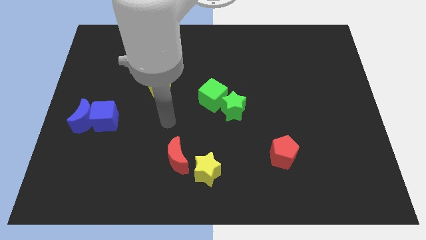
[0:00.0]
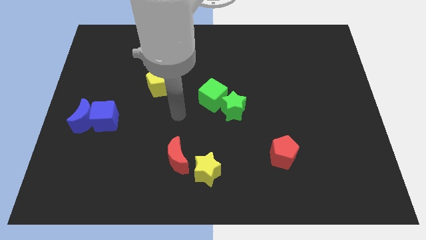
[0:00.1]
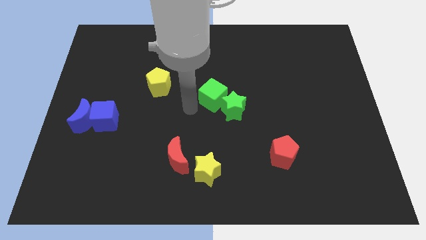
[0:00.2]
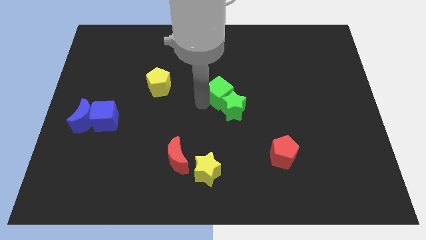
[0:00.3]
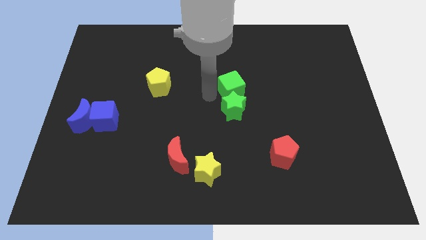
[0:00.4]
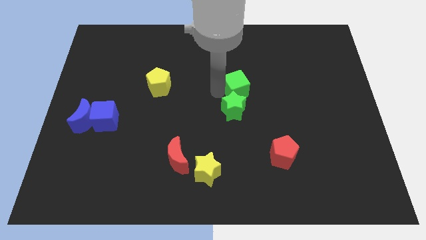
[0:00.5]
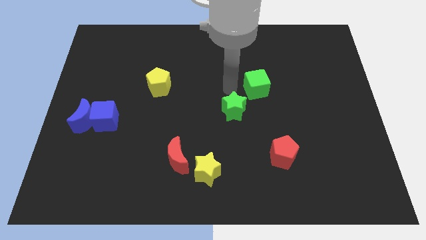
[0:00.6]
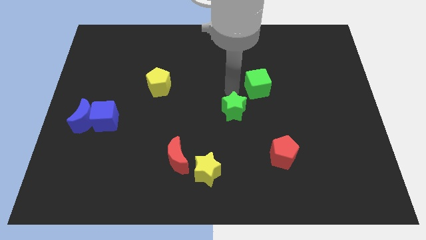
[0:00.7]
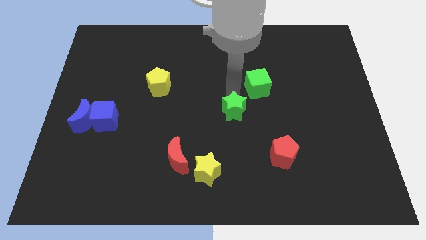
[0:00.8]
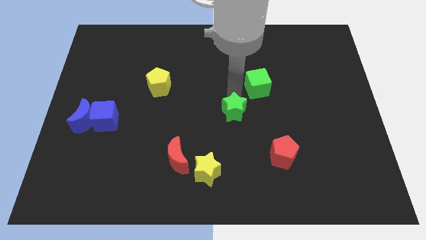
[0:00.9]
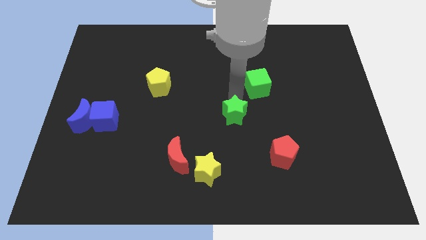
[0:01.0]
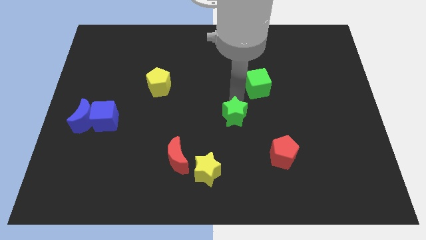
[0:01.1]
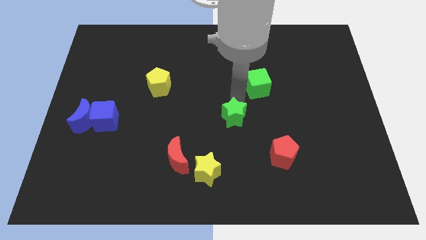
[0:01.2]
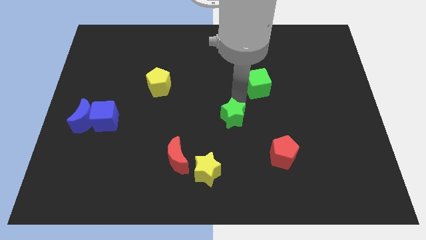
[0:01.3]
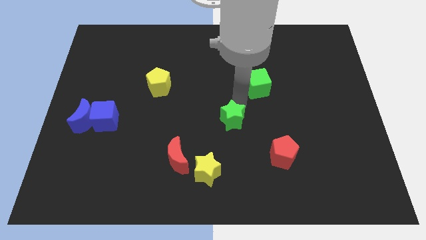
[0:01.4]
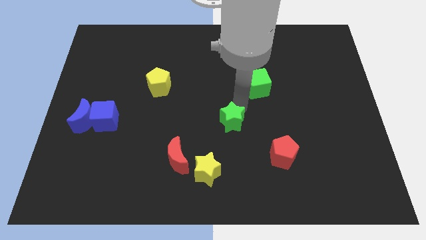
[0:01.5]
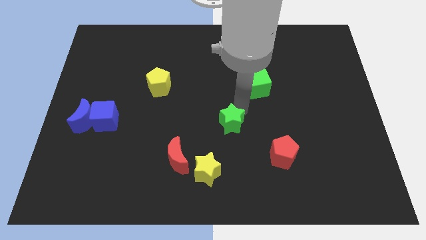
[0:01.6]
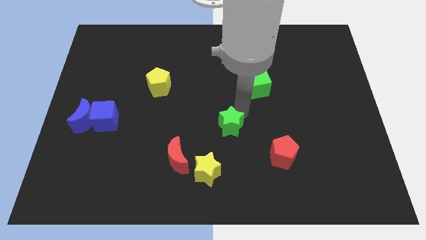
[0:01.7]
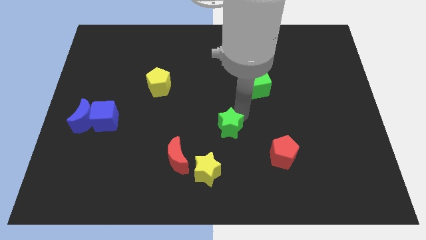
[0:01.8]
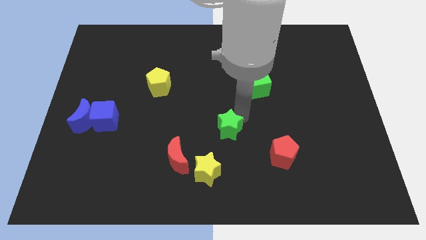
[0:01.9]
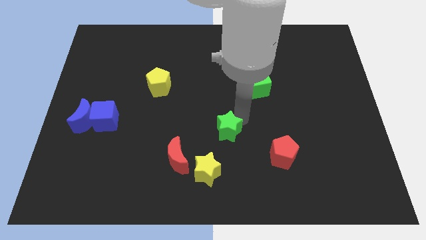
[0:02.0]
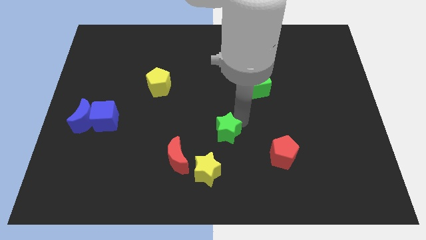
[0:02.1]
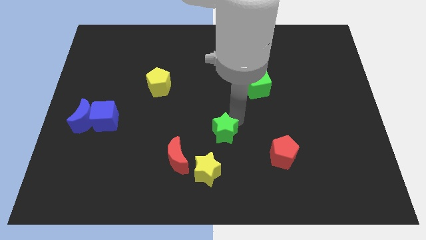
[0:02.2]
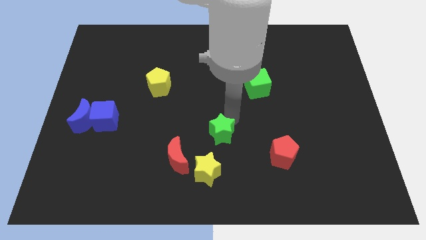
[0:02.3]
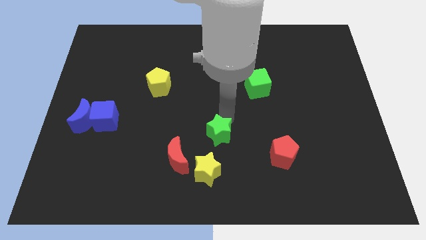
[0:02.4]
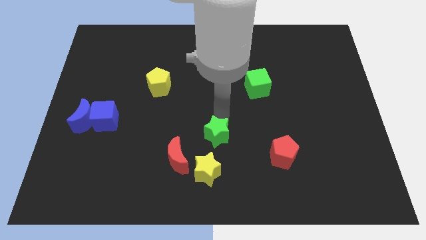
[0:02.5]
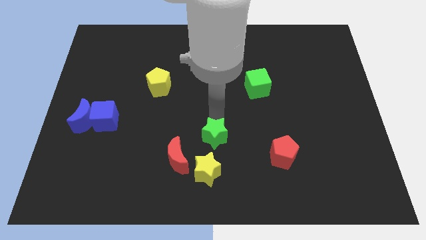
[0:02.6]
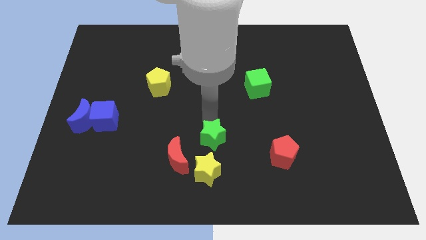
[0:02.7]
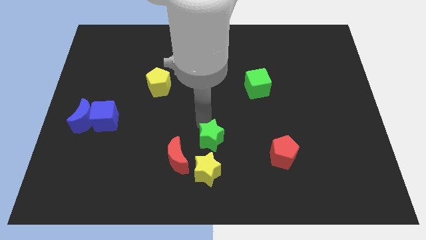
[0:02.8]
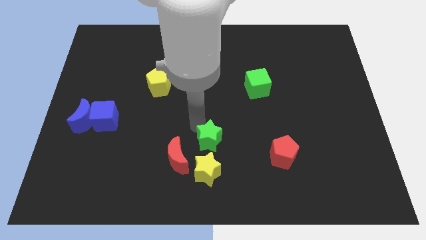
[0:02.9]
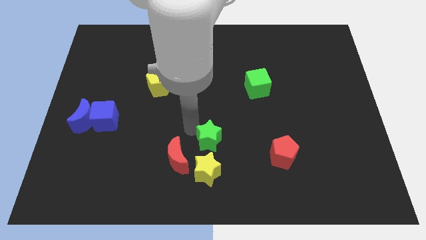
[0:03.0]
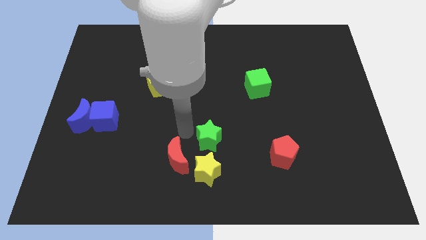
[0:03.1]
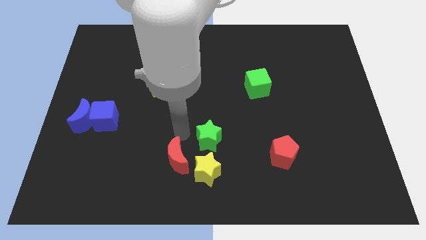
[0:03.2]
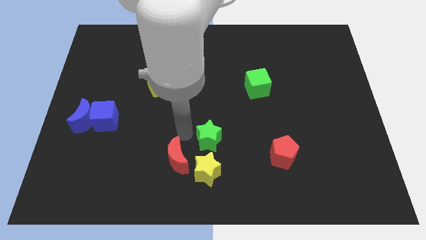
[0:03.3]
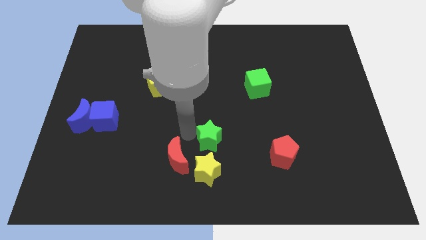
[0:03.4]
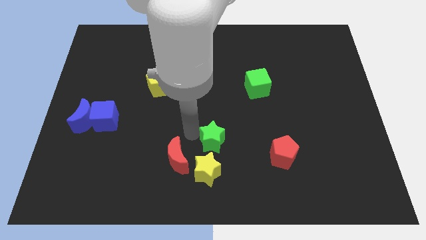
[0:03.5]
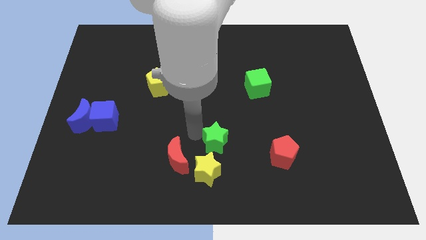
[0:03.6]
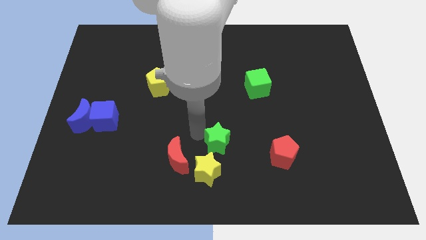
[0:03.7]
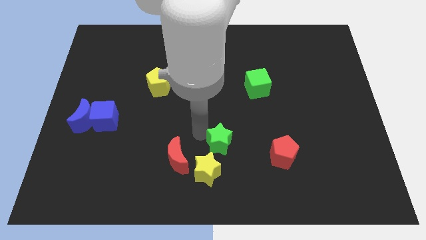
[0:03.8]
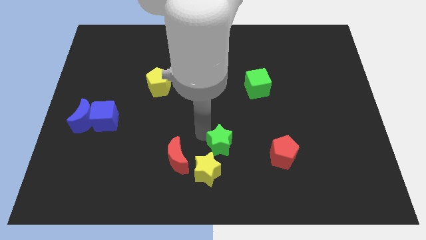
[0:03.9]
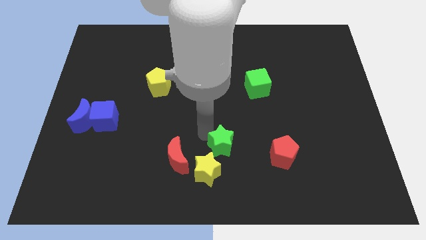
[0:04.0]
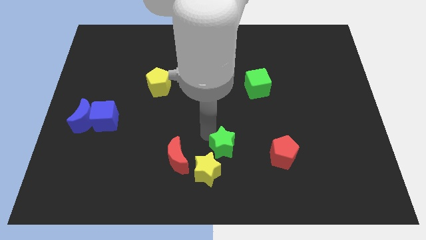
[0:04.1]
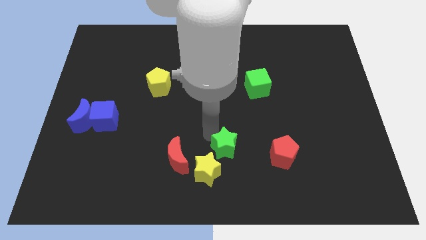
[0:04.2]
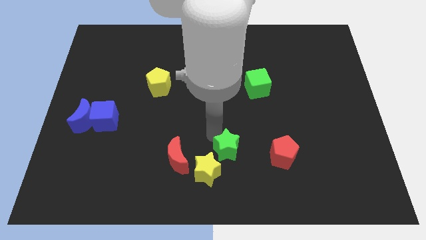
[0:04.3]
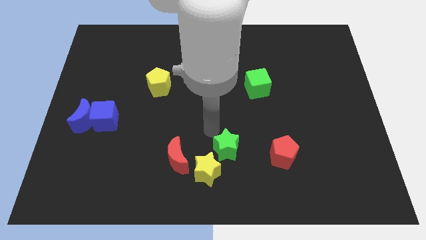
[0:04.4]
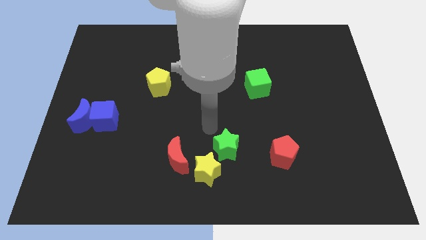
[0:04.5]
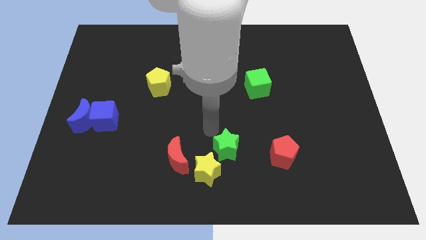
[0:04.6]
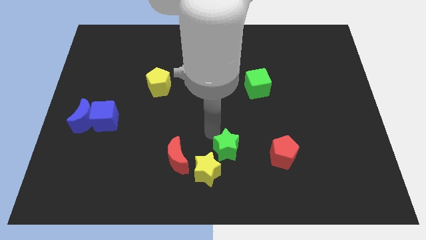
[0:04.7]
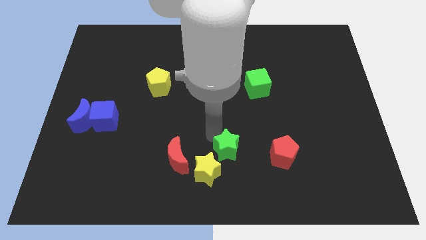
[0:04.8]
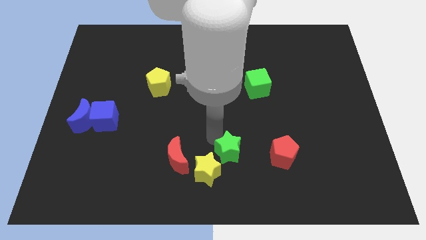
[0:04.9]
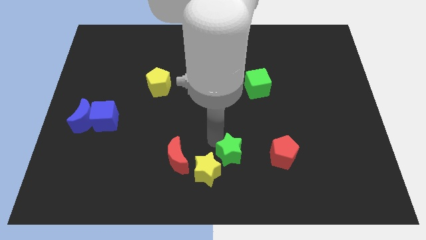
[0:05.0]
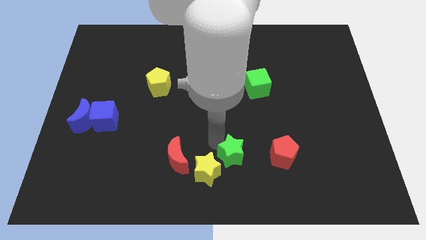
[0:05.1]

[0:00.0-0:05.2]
put the green star to the bottom side

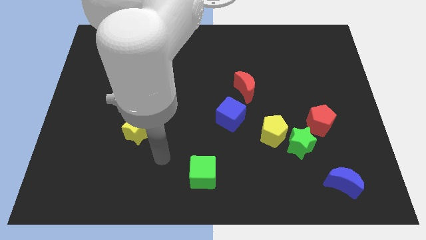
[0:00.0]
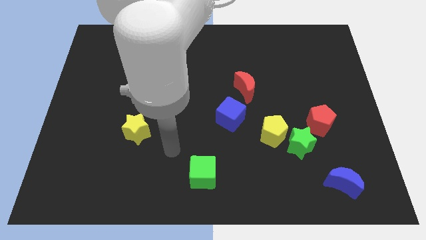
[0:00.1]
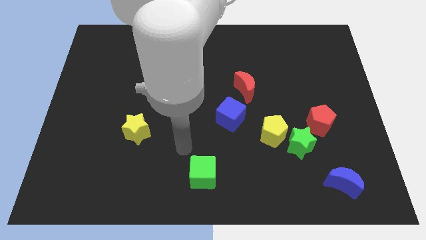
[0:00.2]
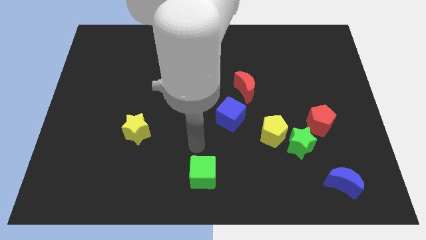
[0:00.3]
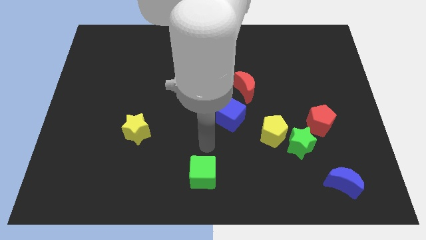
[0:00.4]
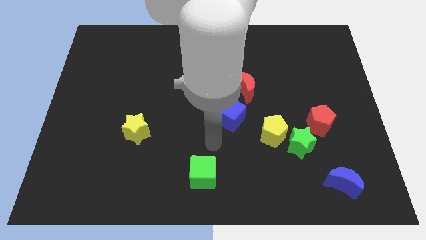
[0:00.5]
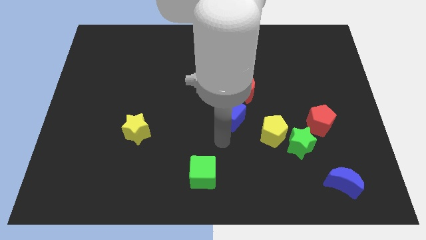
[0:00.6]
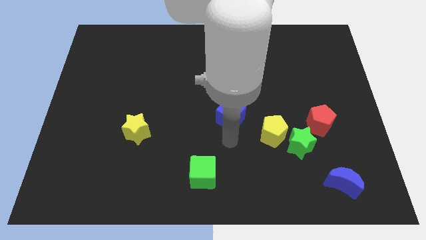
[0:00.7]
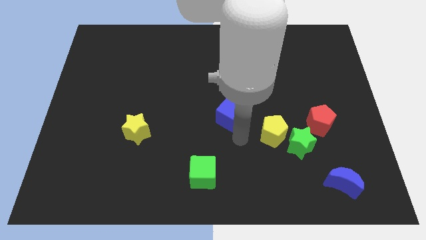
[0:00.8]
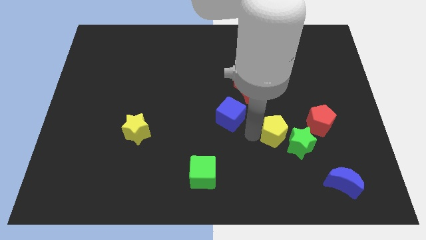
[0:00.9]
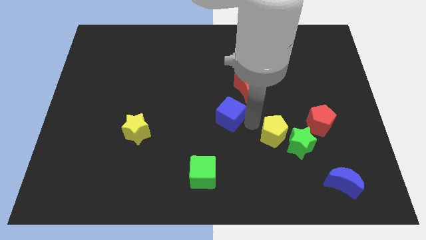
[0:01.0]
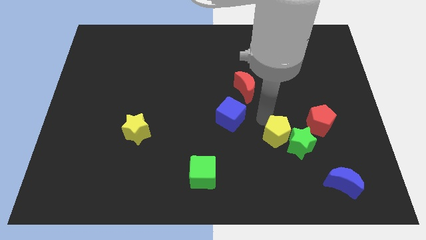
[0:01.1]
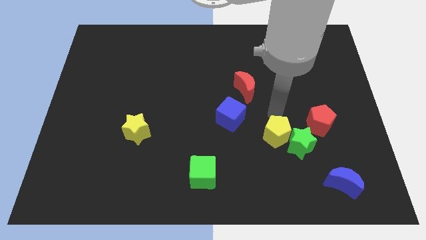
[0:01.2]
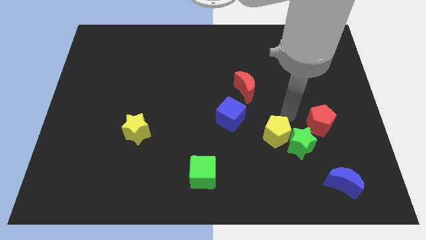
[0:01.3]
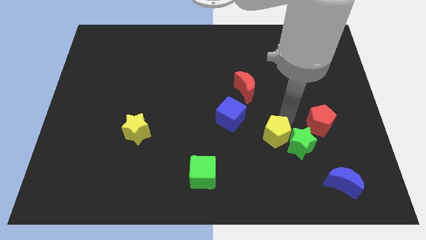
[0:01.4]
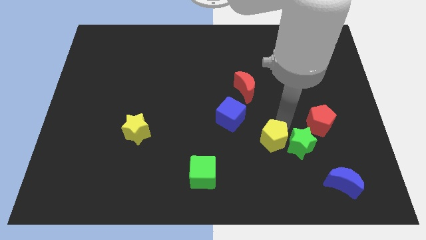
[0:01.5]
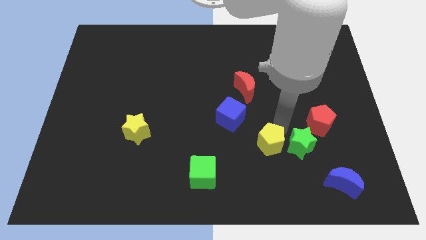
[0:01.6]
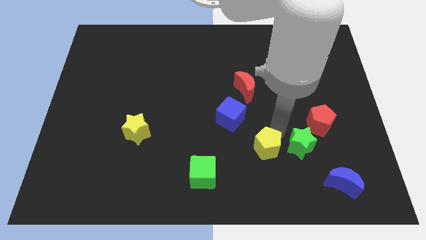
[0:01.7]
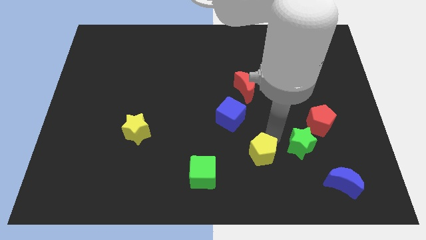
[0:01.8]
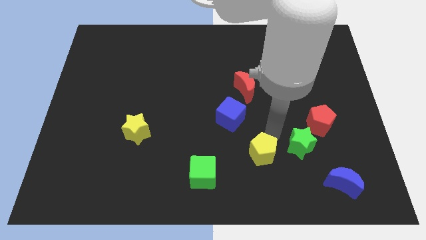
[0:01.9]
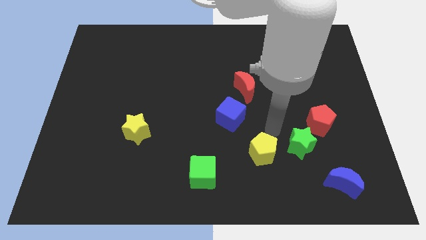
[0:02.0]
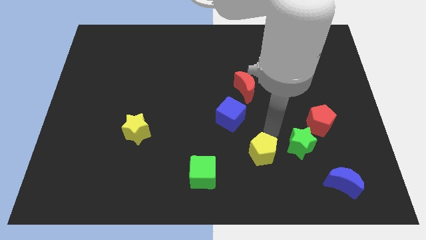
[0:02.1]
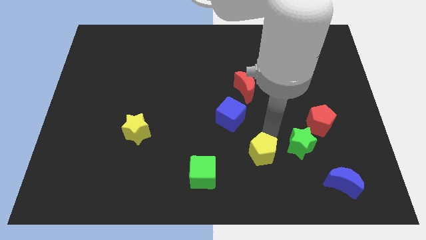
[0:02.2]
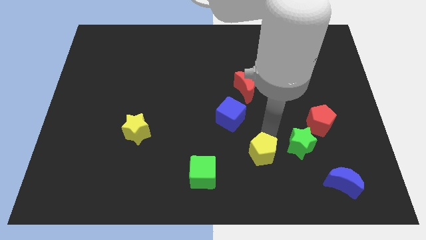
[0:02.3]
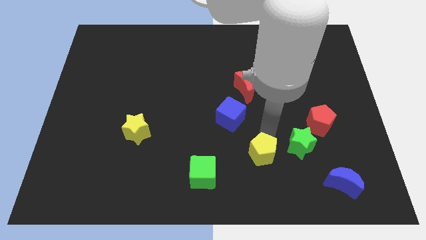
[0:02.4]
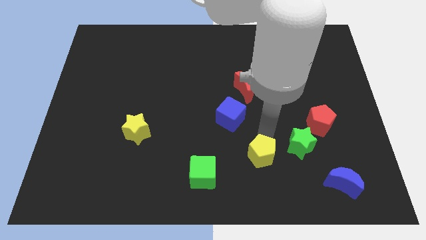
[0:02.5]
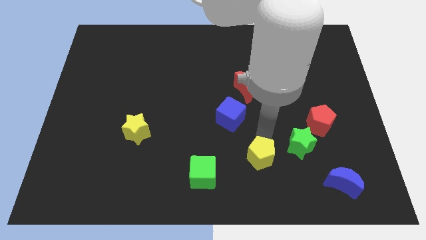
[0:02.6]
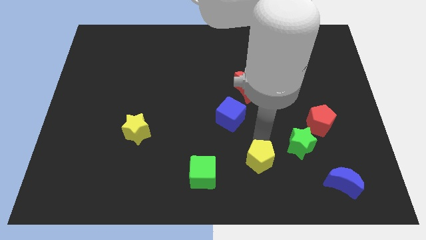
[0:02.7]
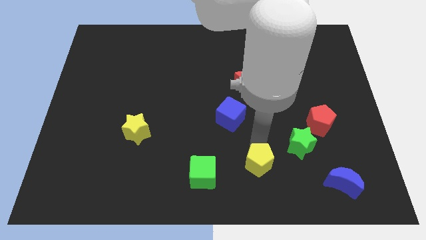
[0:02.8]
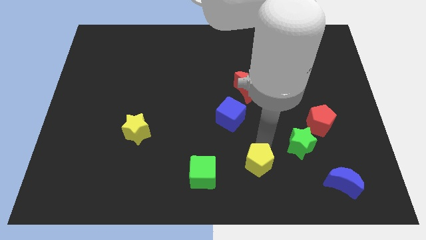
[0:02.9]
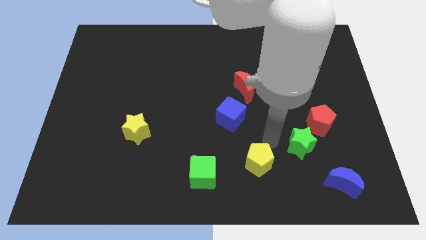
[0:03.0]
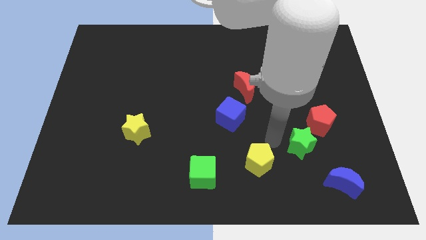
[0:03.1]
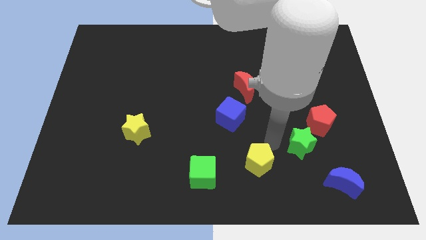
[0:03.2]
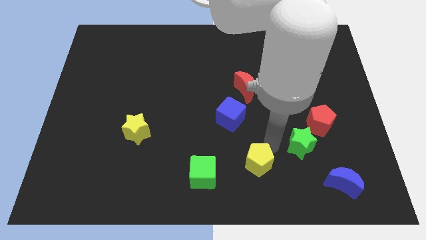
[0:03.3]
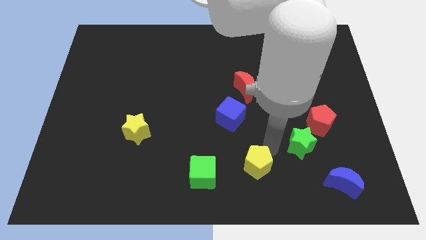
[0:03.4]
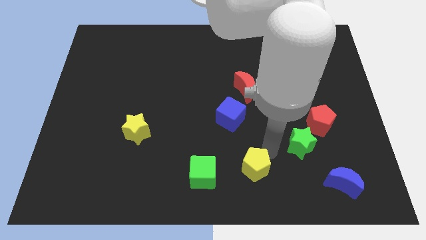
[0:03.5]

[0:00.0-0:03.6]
move the yellow pentagon to the bottom side
